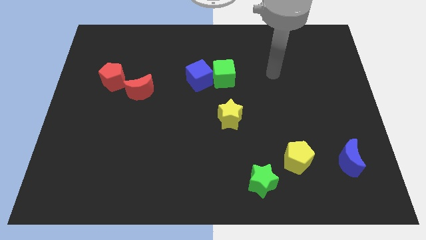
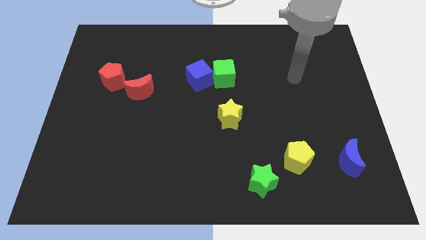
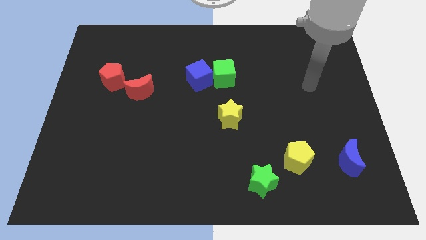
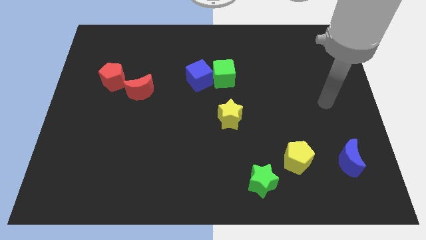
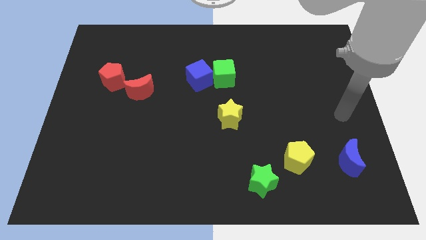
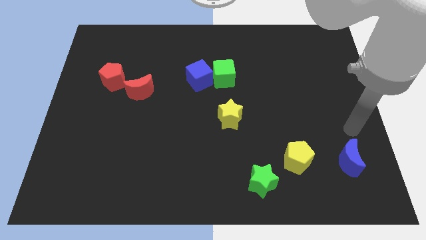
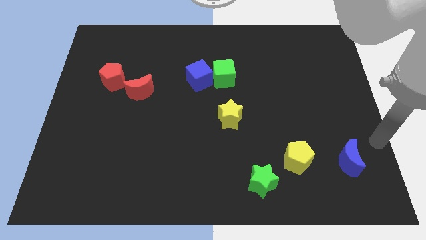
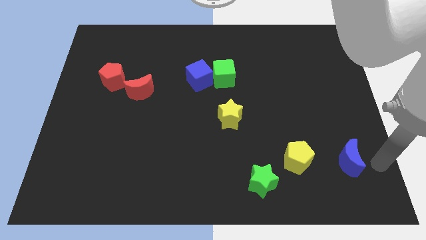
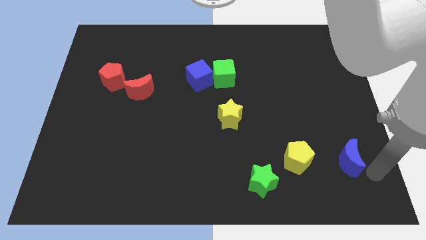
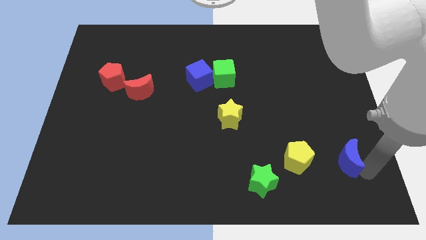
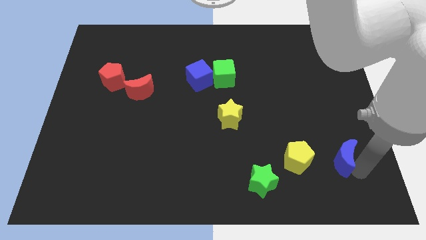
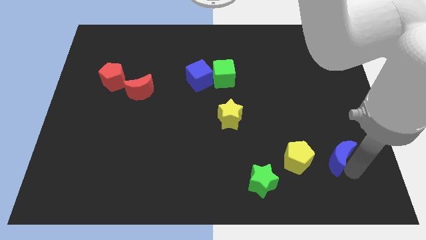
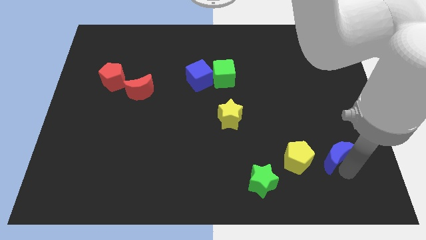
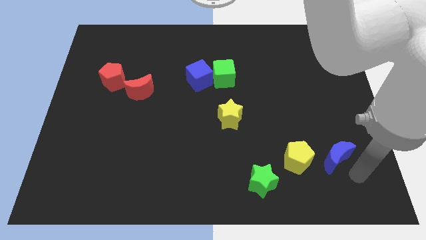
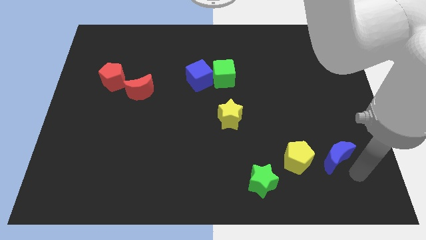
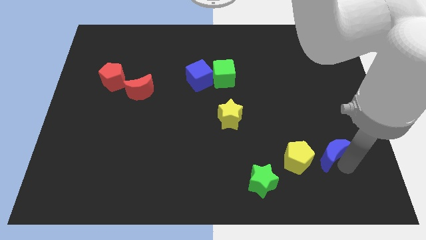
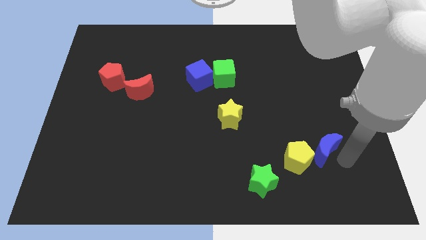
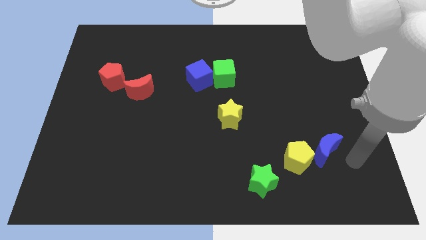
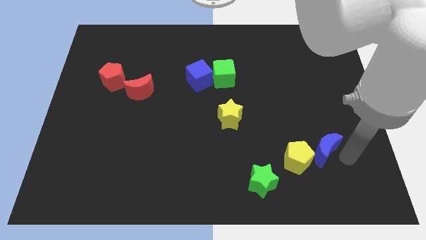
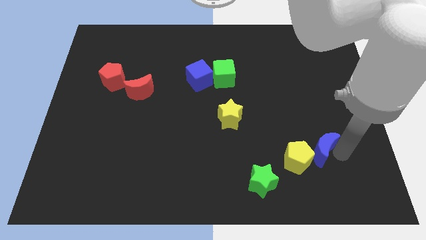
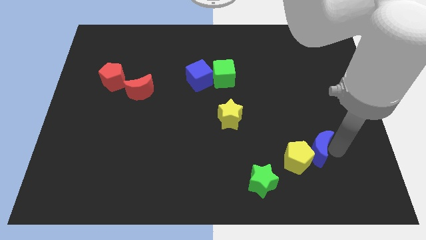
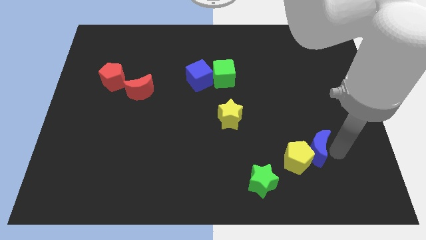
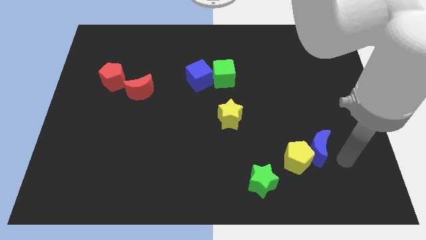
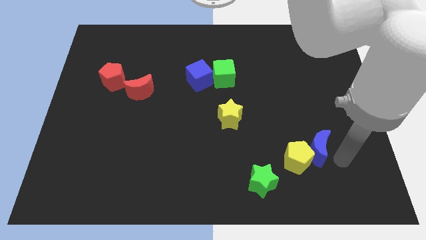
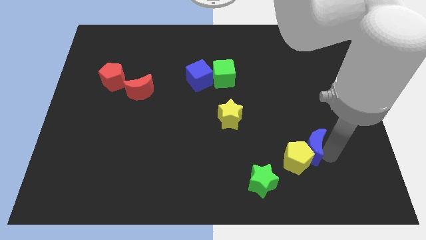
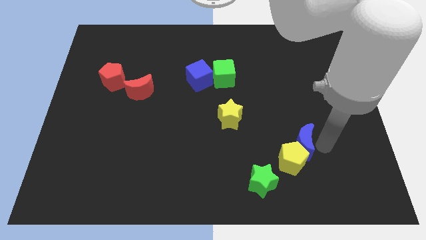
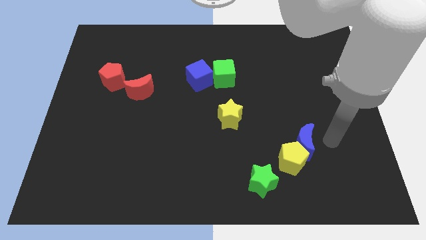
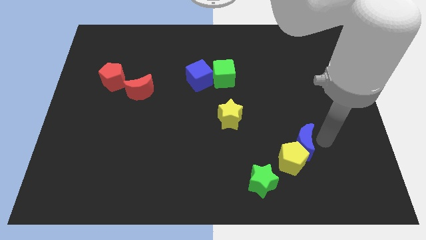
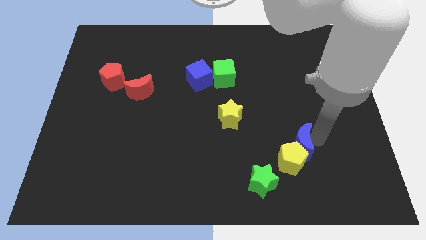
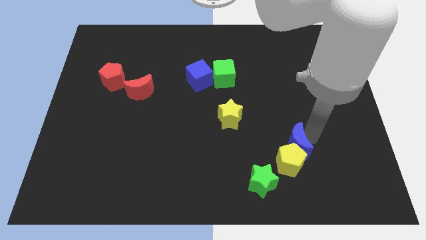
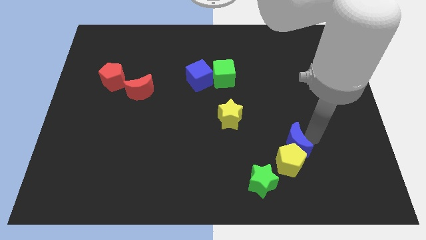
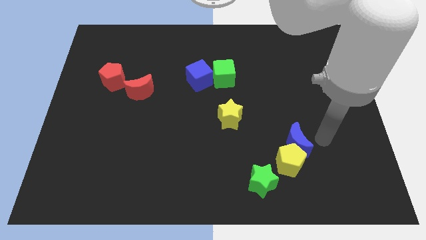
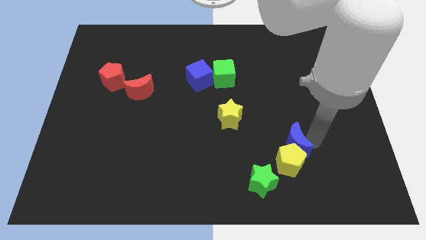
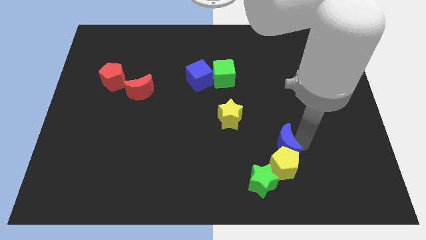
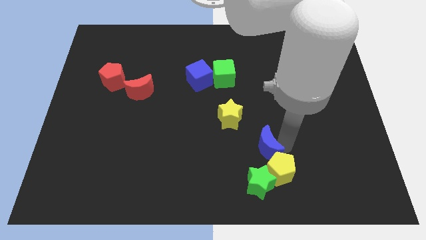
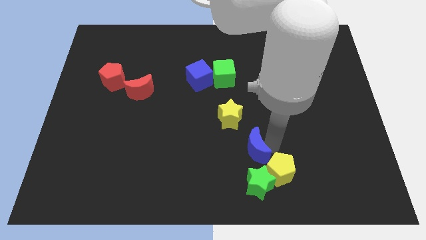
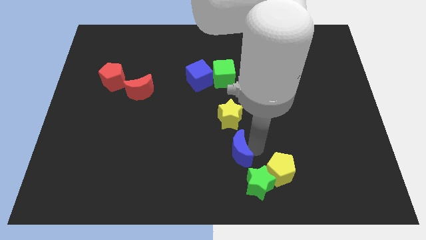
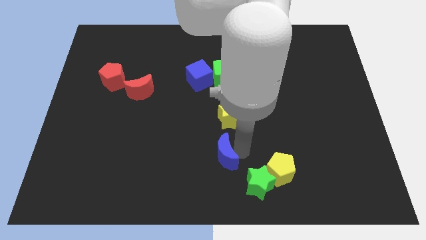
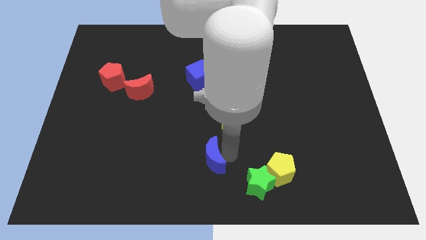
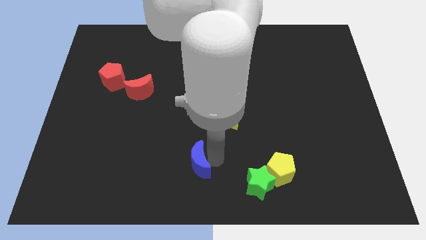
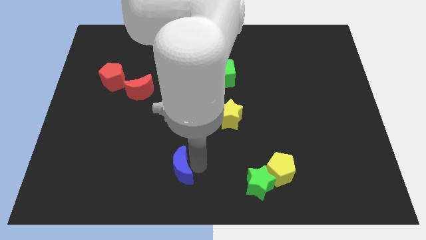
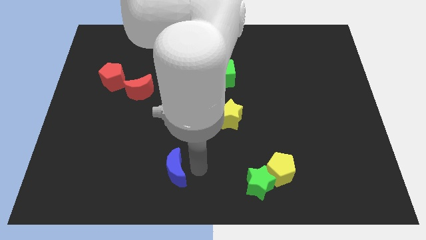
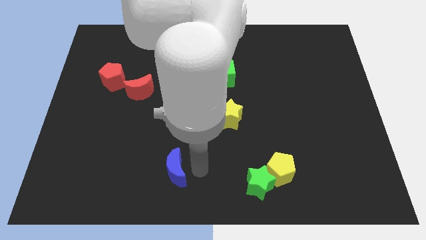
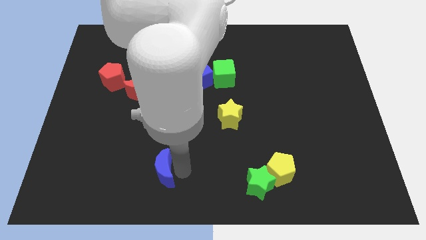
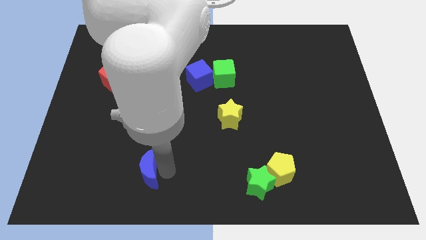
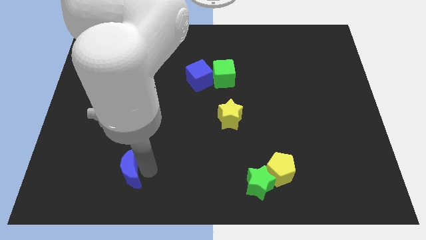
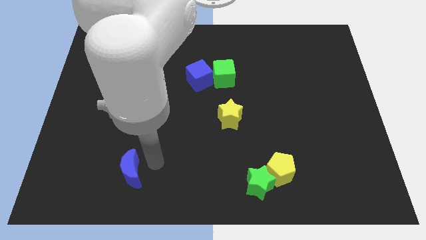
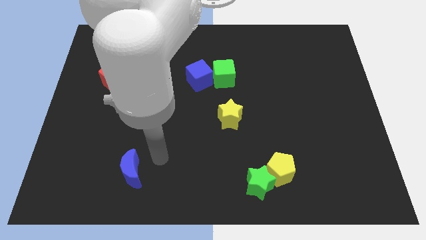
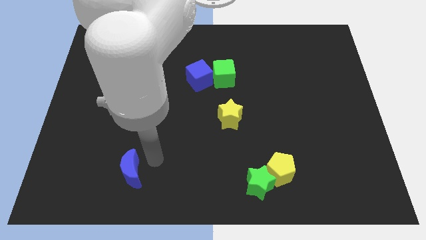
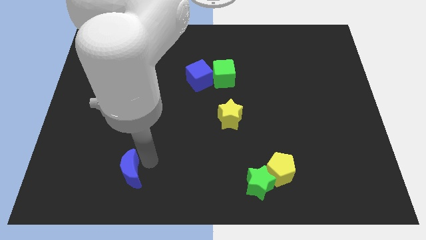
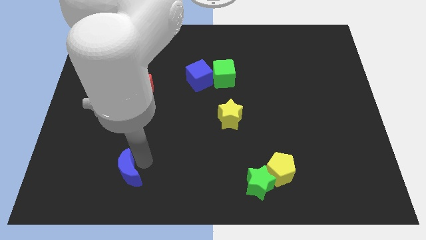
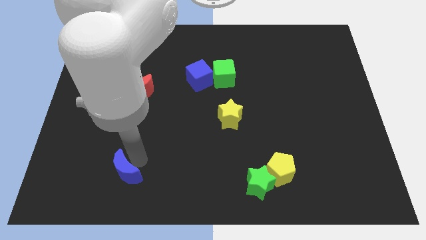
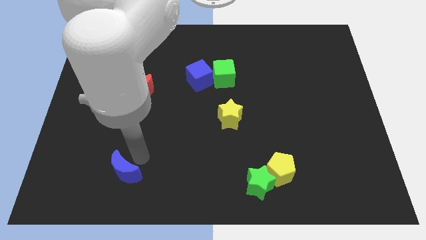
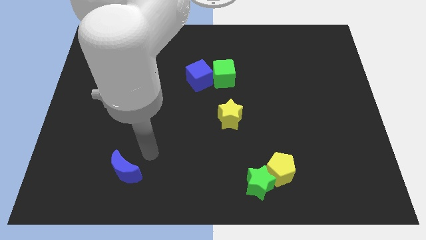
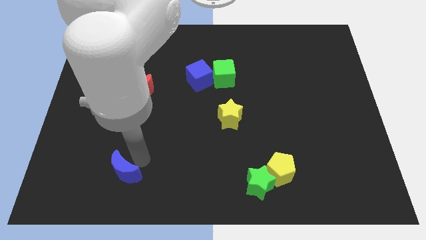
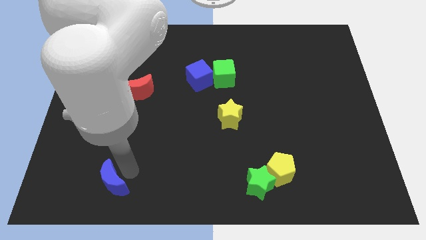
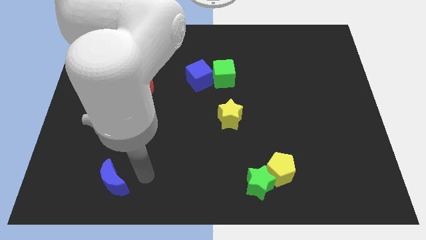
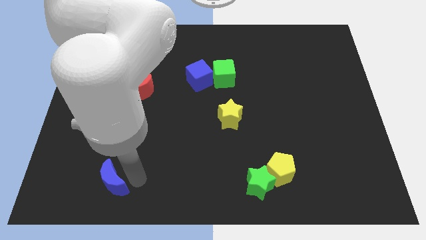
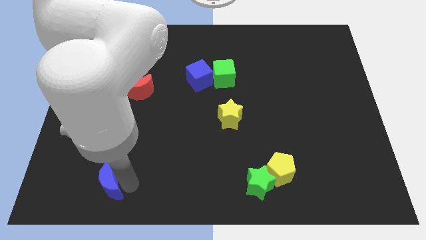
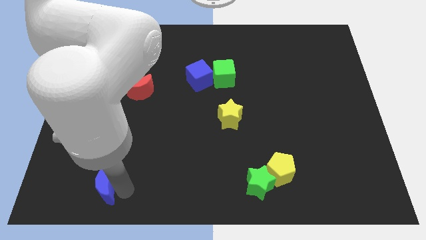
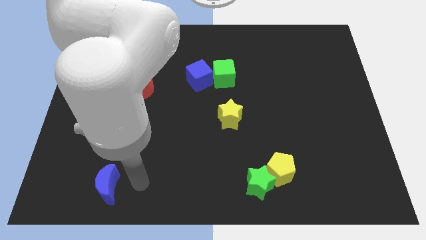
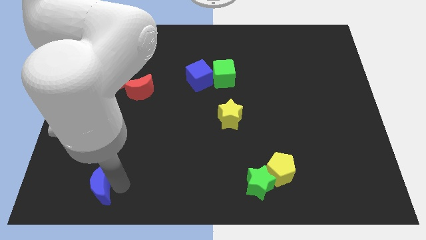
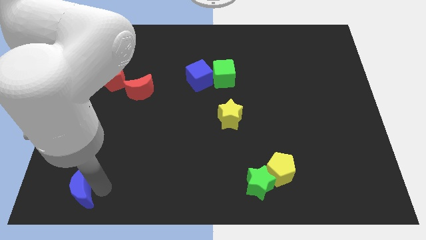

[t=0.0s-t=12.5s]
slide the blue moon to the bottom left
